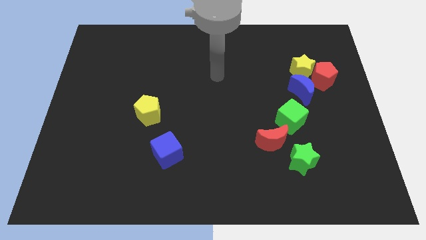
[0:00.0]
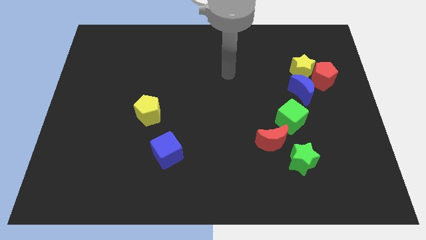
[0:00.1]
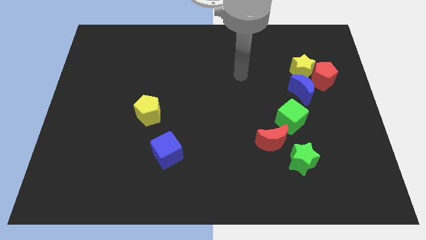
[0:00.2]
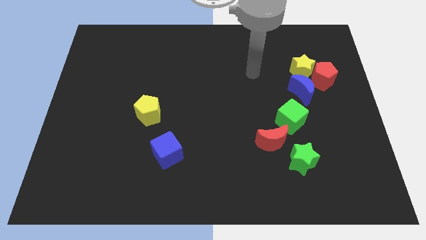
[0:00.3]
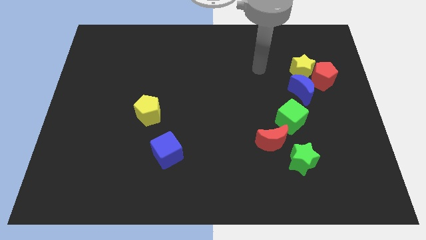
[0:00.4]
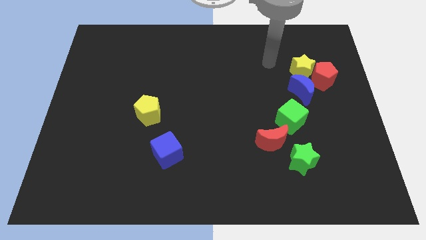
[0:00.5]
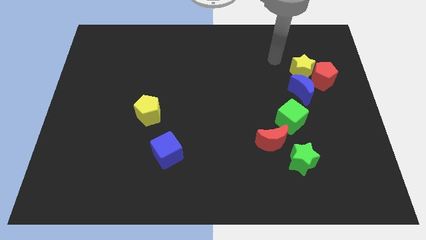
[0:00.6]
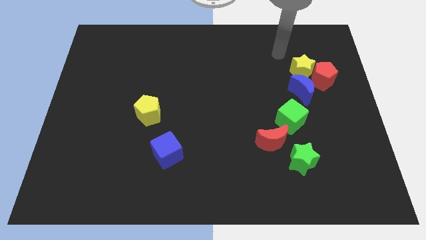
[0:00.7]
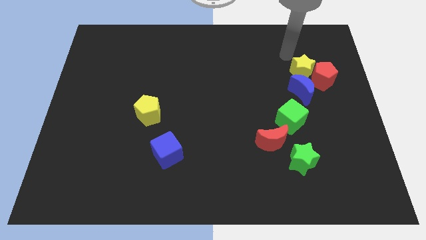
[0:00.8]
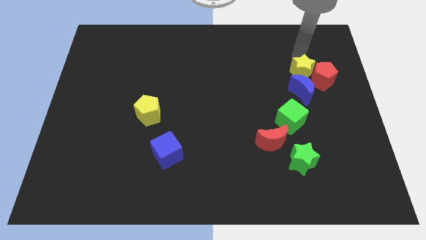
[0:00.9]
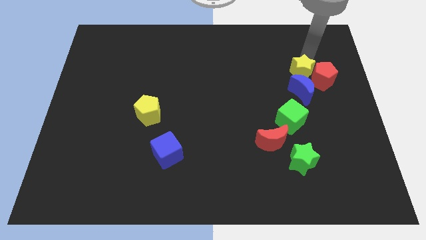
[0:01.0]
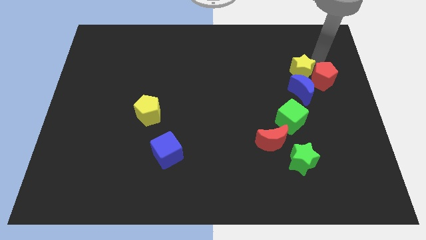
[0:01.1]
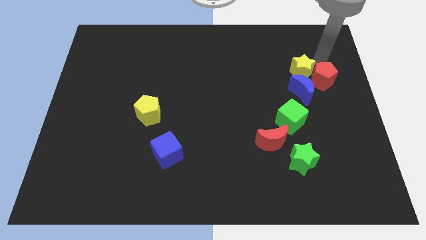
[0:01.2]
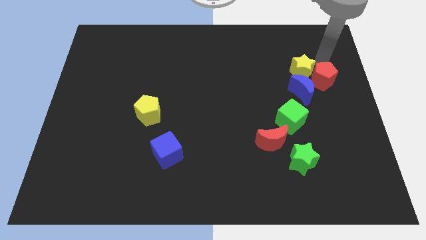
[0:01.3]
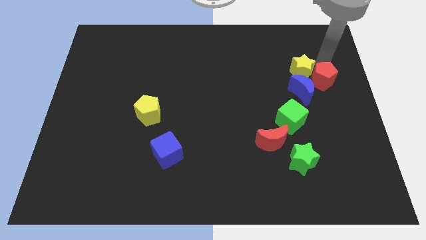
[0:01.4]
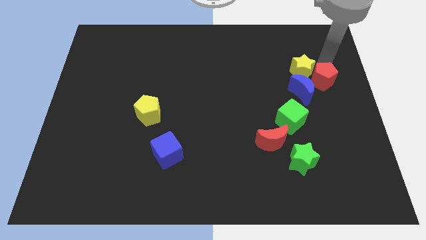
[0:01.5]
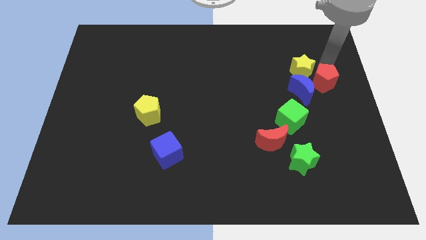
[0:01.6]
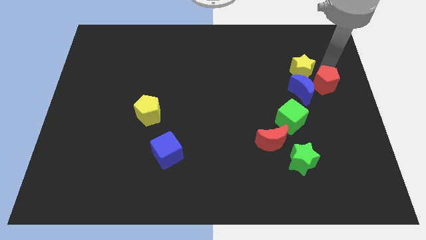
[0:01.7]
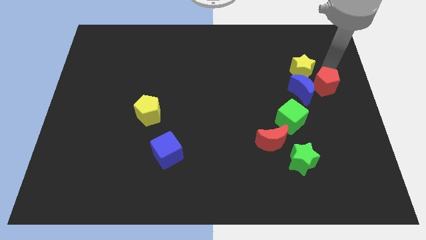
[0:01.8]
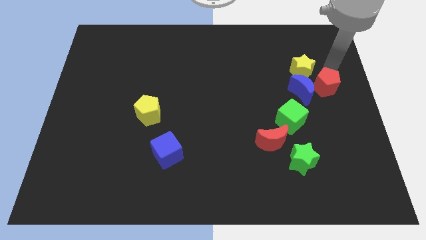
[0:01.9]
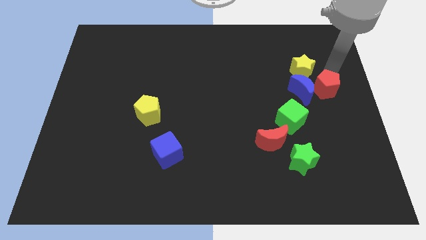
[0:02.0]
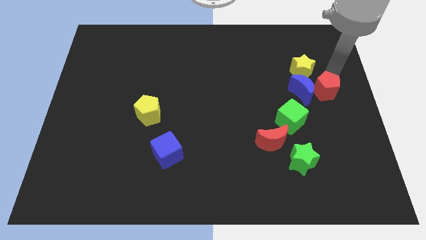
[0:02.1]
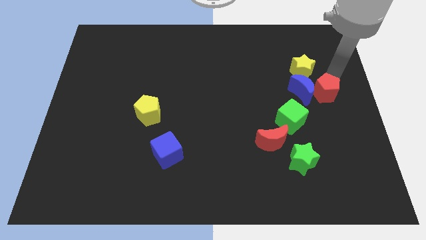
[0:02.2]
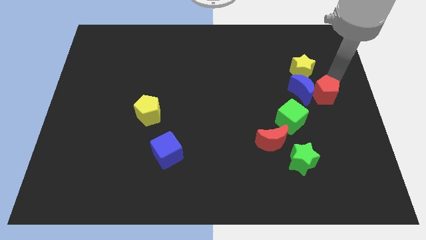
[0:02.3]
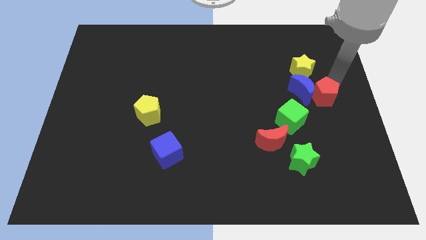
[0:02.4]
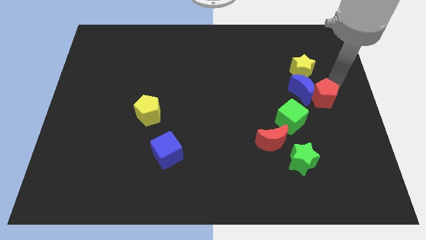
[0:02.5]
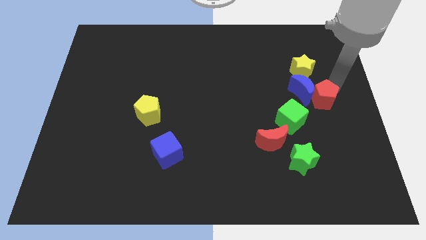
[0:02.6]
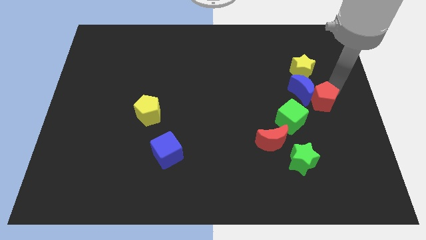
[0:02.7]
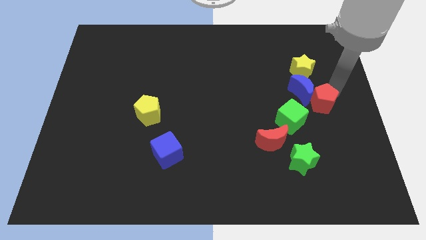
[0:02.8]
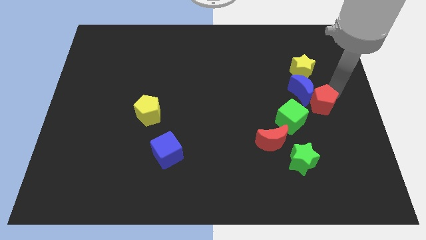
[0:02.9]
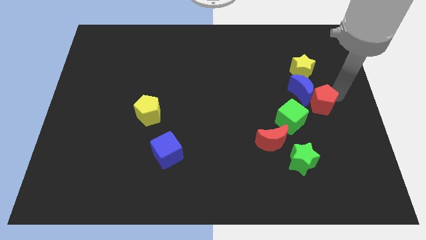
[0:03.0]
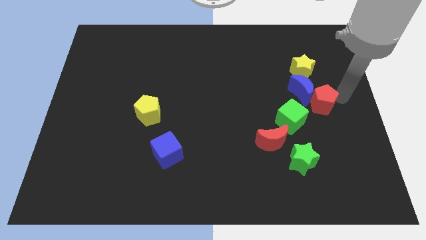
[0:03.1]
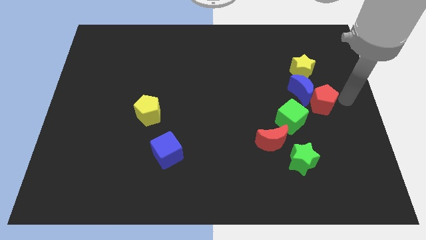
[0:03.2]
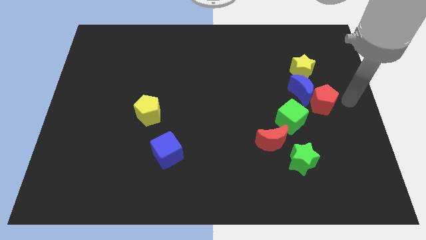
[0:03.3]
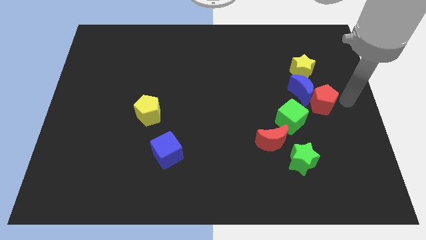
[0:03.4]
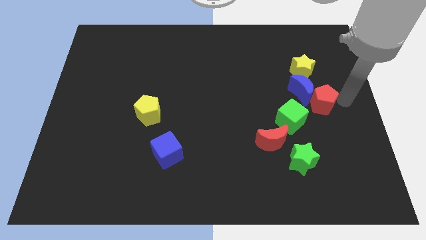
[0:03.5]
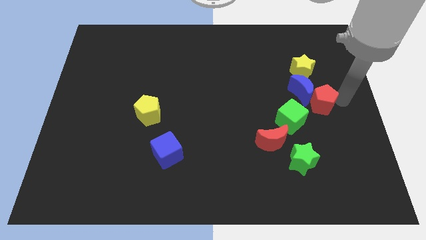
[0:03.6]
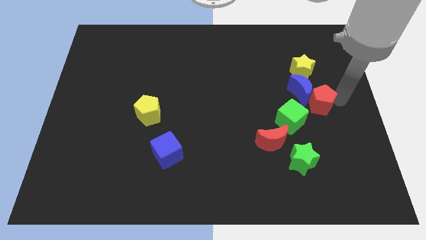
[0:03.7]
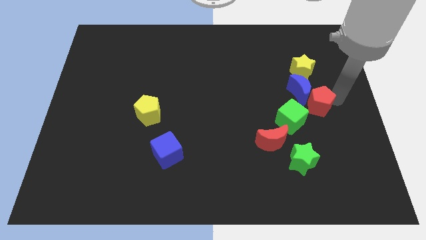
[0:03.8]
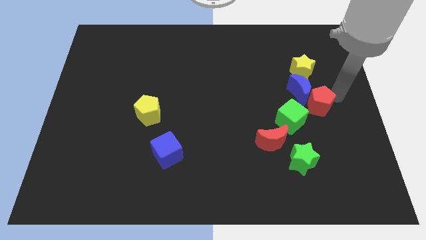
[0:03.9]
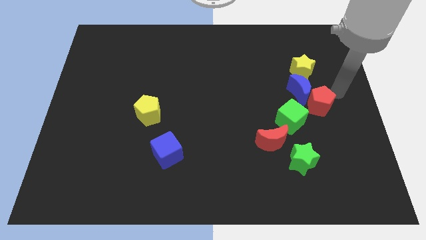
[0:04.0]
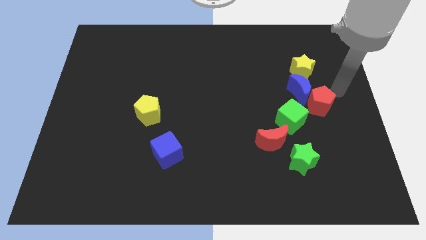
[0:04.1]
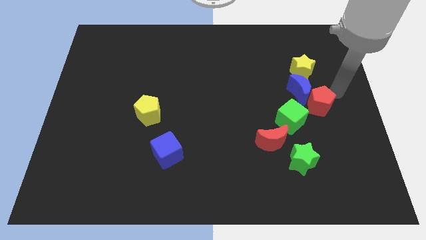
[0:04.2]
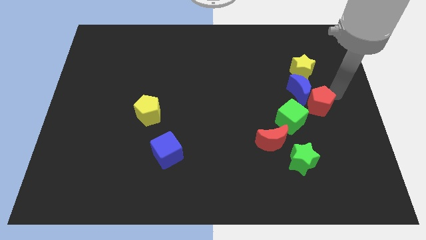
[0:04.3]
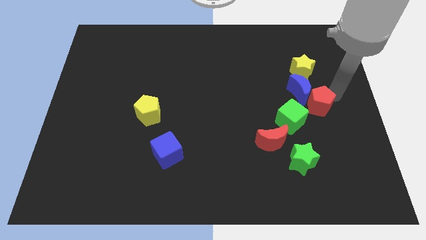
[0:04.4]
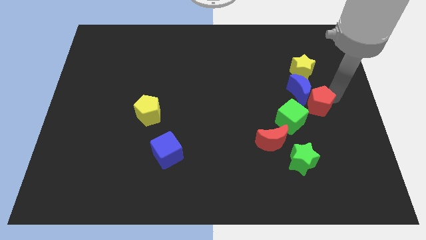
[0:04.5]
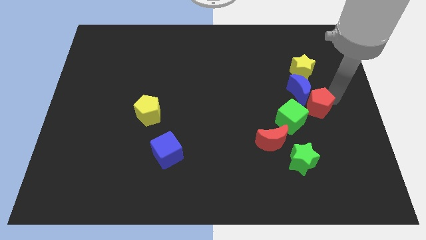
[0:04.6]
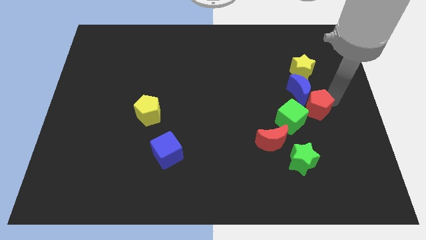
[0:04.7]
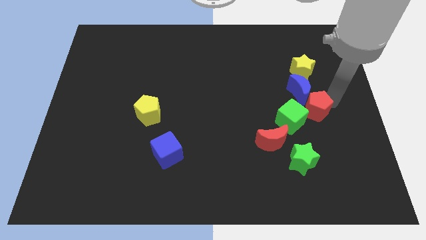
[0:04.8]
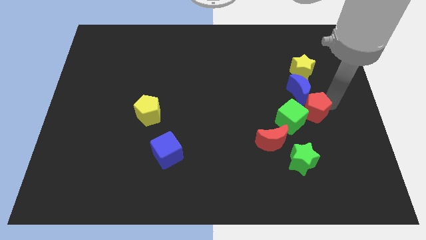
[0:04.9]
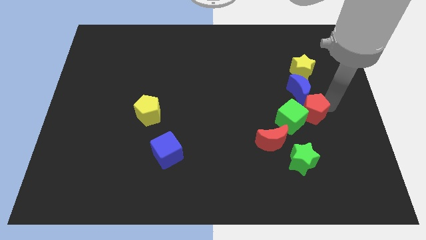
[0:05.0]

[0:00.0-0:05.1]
put the red pentagon towards the green cube

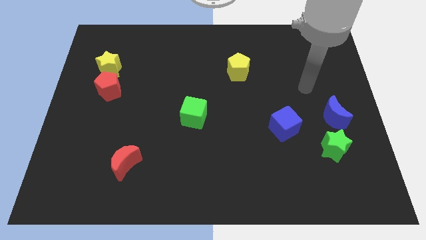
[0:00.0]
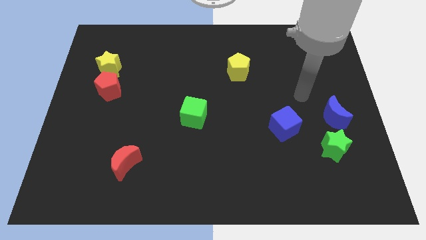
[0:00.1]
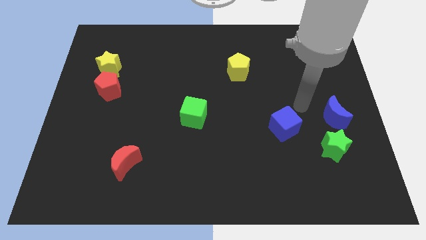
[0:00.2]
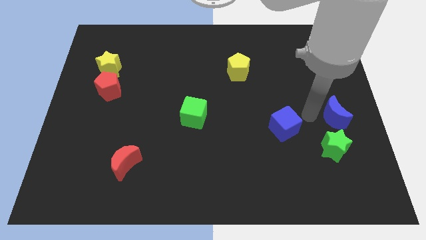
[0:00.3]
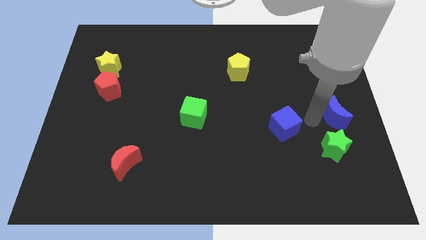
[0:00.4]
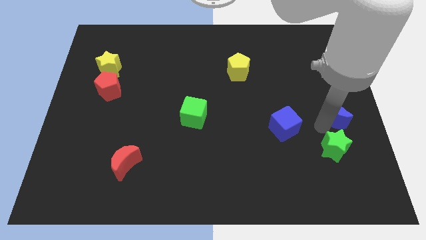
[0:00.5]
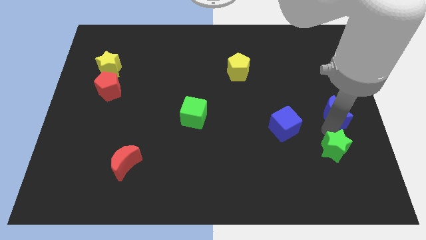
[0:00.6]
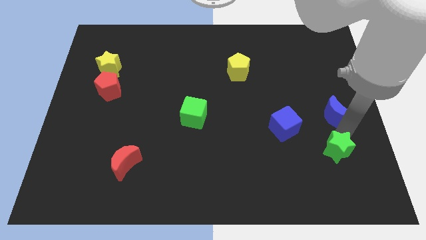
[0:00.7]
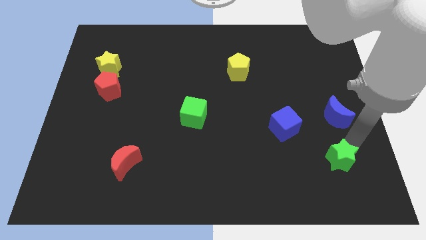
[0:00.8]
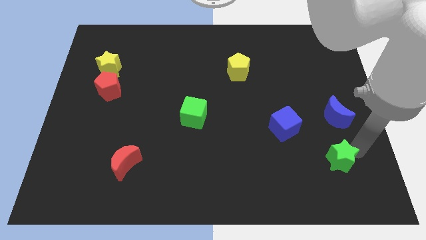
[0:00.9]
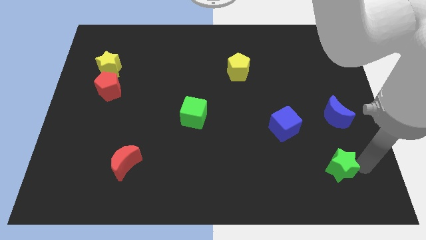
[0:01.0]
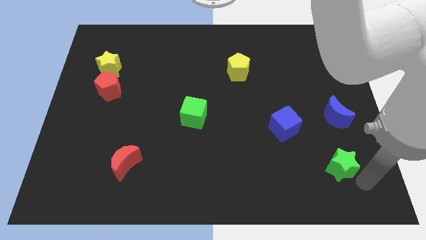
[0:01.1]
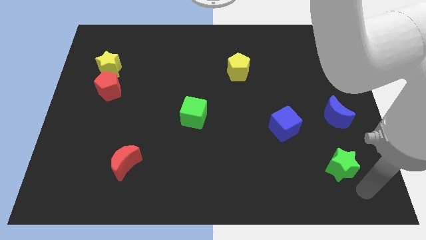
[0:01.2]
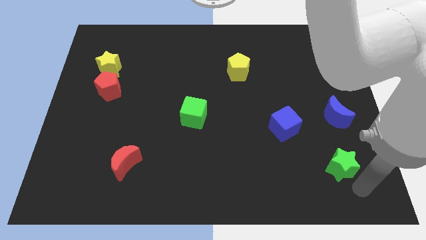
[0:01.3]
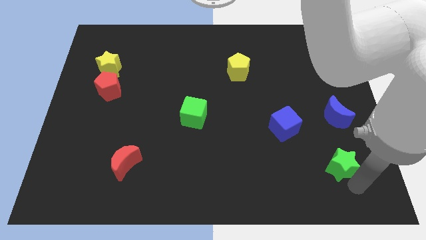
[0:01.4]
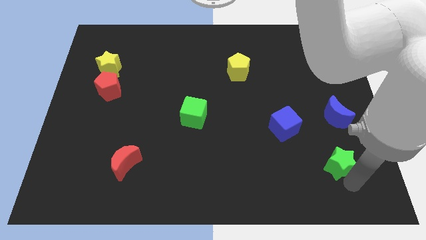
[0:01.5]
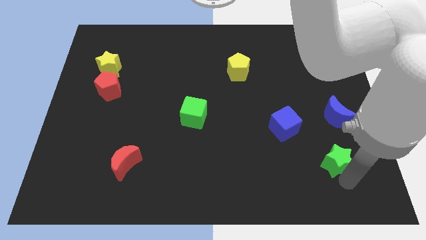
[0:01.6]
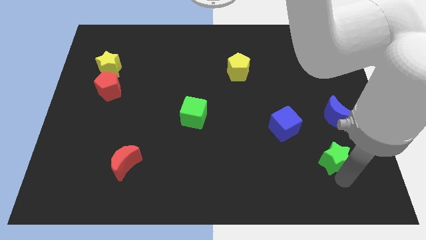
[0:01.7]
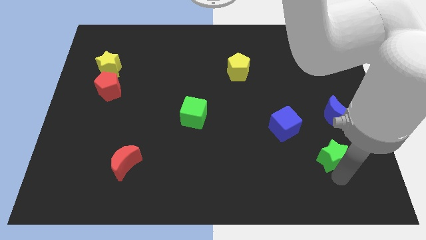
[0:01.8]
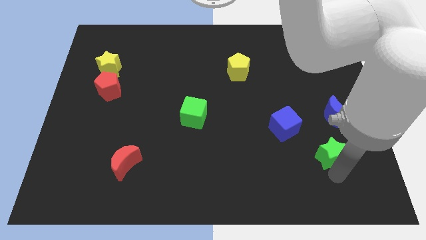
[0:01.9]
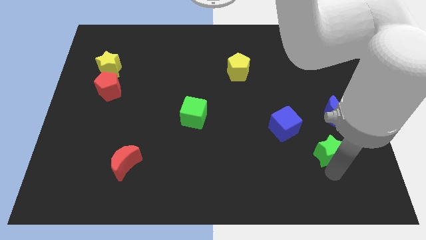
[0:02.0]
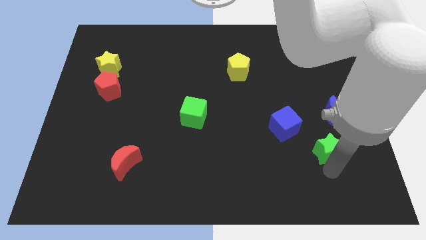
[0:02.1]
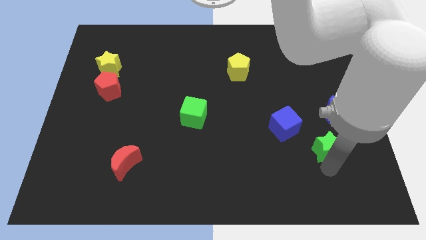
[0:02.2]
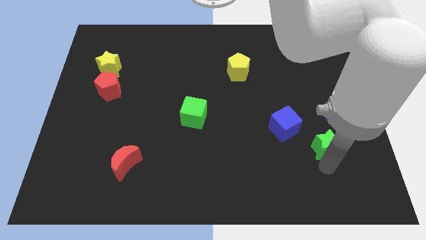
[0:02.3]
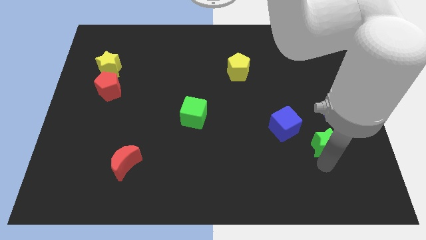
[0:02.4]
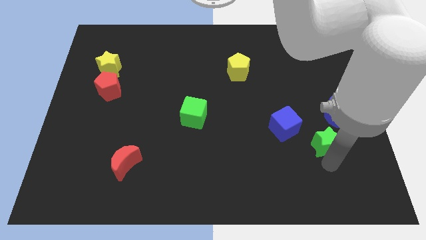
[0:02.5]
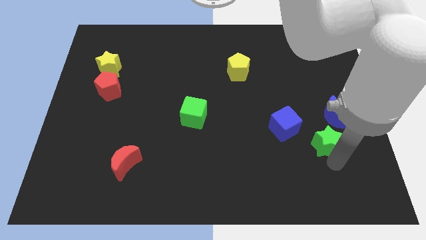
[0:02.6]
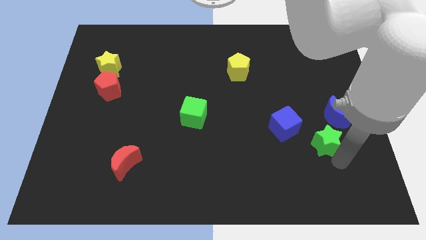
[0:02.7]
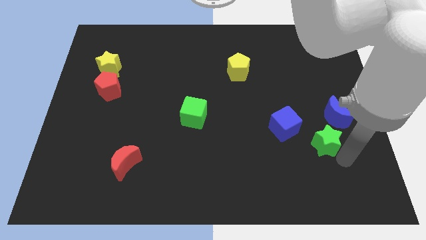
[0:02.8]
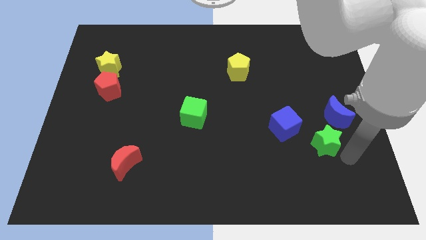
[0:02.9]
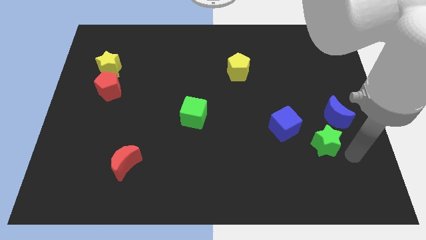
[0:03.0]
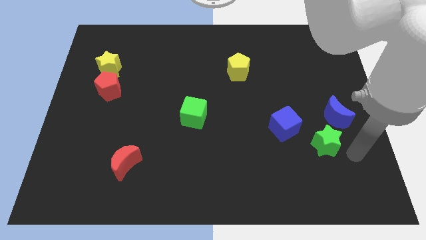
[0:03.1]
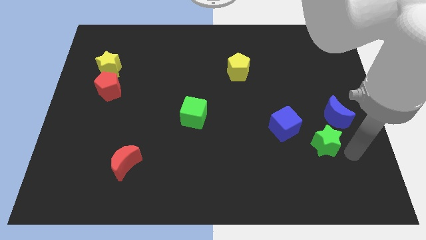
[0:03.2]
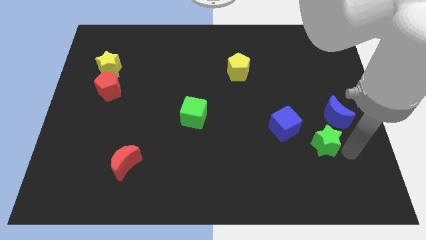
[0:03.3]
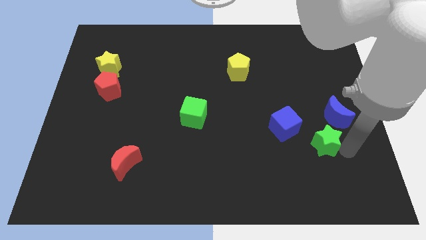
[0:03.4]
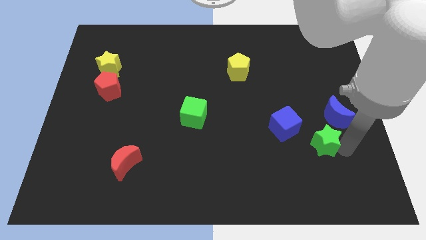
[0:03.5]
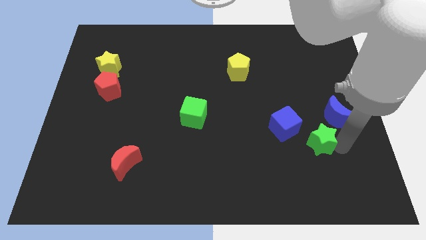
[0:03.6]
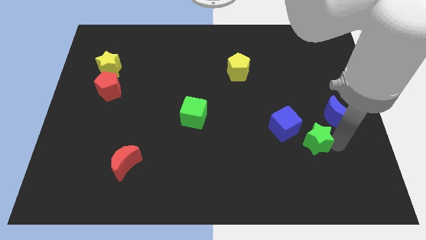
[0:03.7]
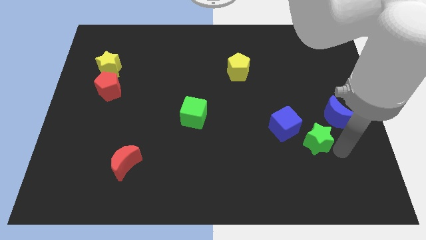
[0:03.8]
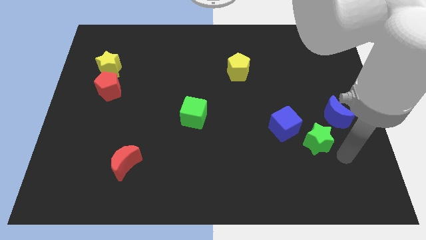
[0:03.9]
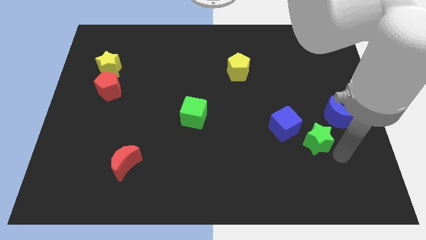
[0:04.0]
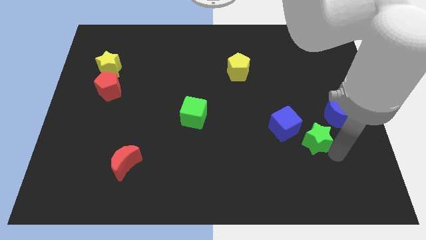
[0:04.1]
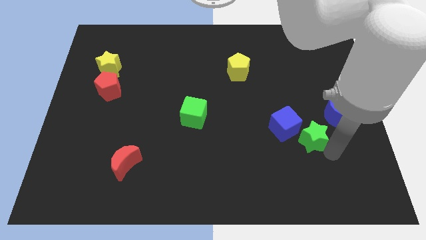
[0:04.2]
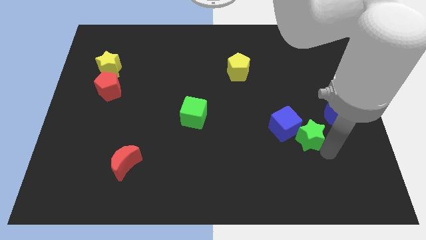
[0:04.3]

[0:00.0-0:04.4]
move the green star towards the blue cube
